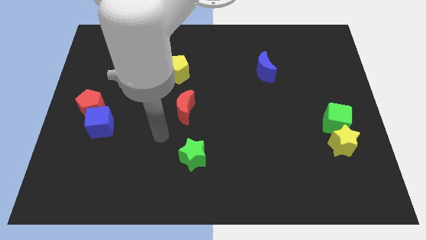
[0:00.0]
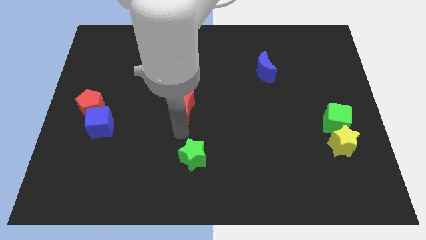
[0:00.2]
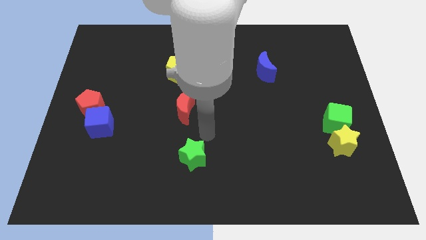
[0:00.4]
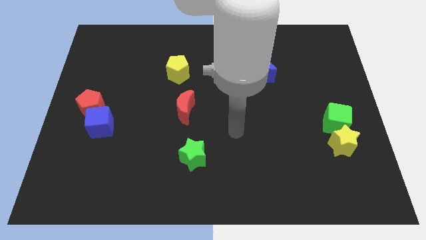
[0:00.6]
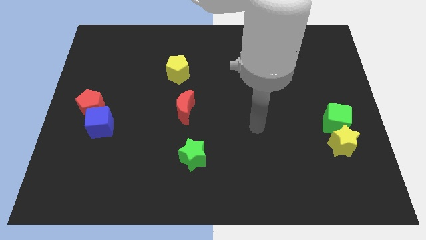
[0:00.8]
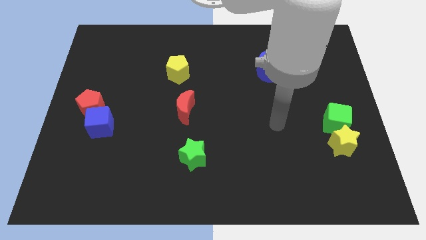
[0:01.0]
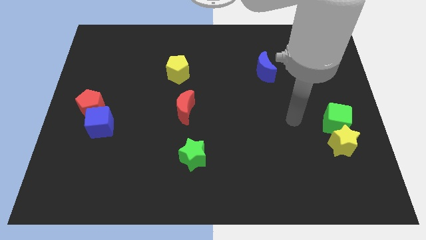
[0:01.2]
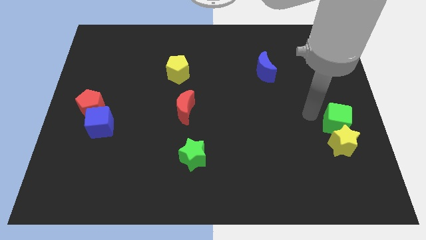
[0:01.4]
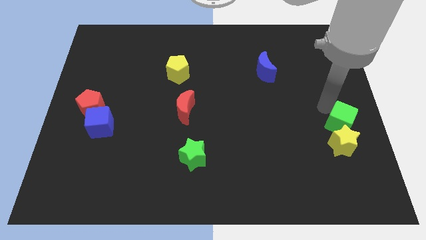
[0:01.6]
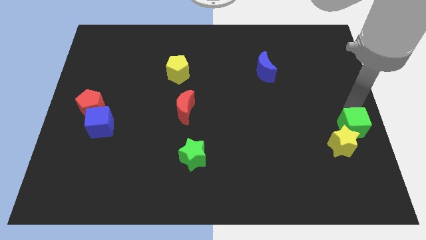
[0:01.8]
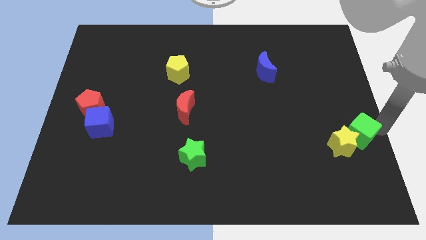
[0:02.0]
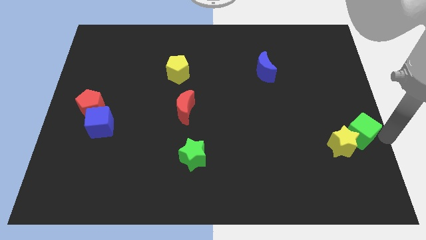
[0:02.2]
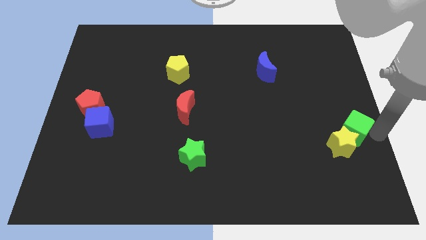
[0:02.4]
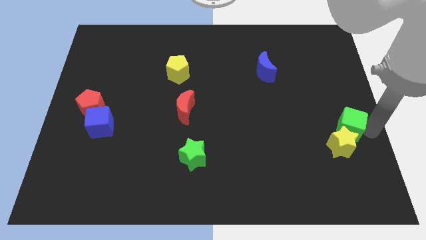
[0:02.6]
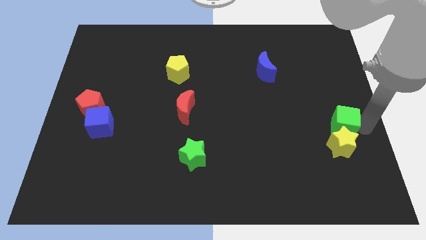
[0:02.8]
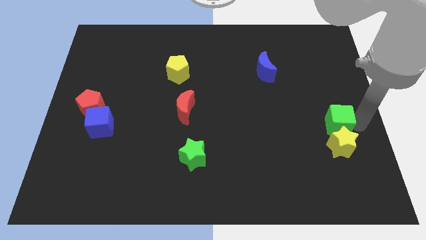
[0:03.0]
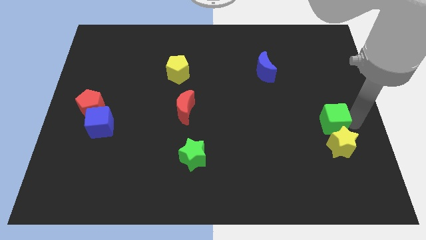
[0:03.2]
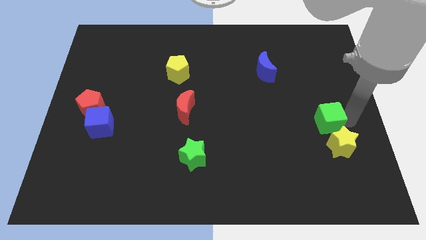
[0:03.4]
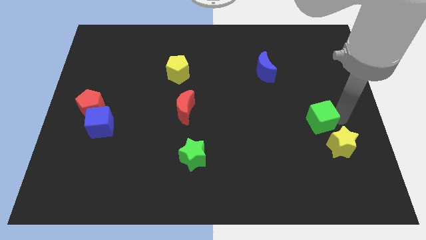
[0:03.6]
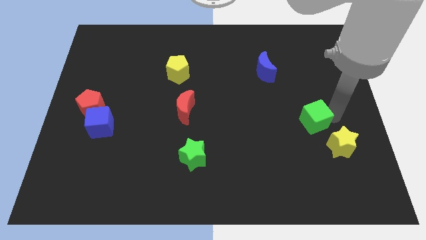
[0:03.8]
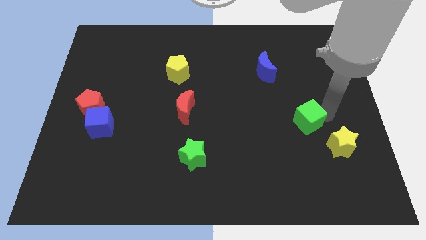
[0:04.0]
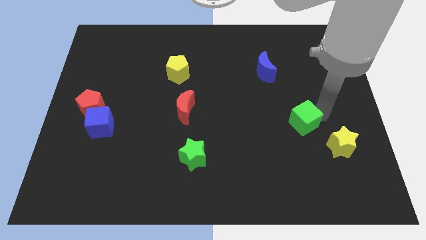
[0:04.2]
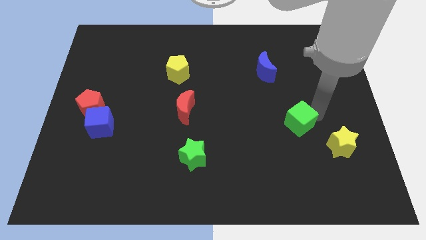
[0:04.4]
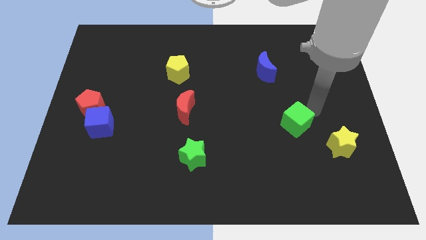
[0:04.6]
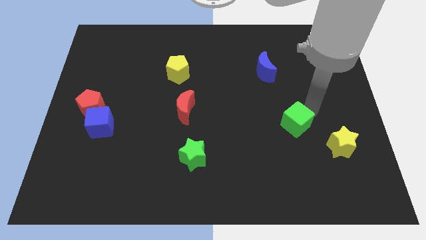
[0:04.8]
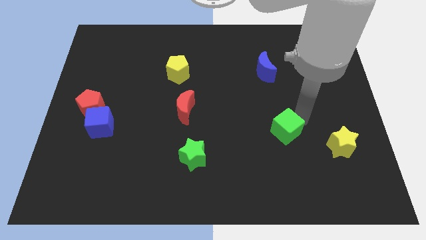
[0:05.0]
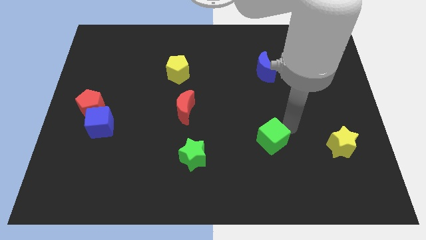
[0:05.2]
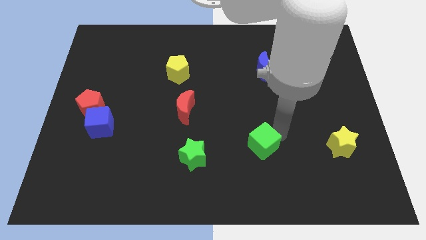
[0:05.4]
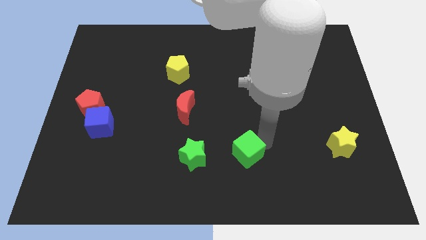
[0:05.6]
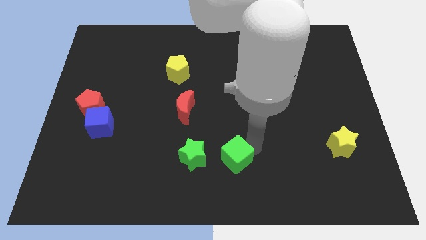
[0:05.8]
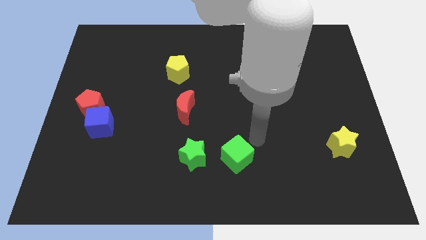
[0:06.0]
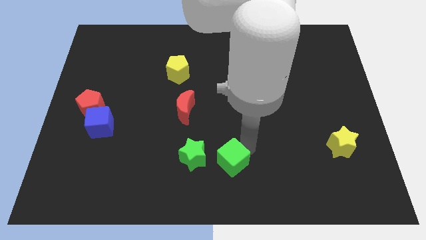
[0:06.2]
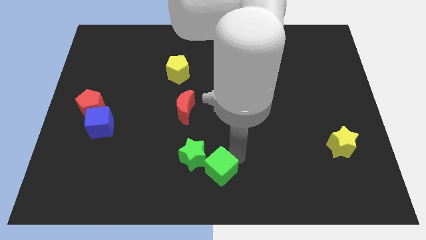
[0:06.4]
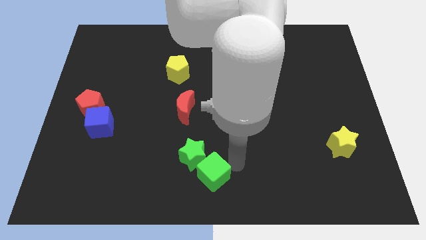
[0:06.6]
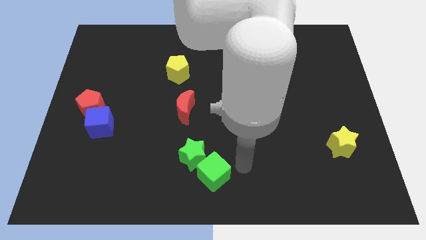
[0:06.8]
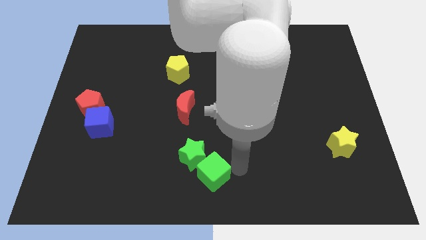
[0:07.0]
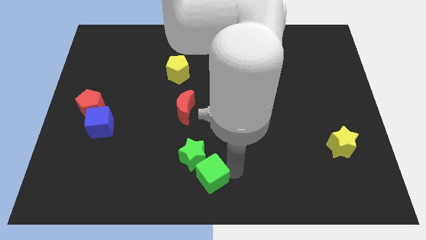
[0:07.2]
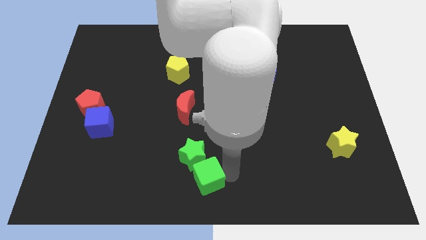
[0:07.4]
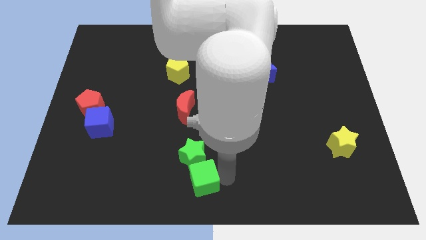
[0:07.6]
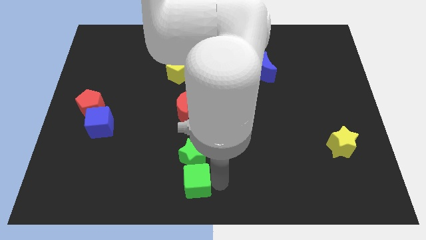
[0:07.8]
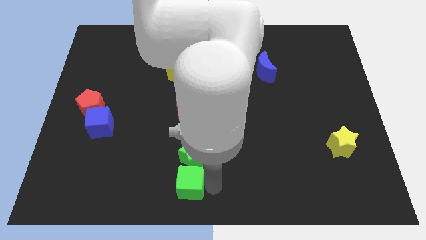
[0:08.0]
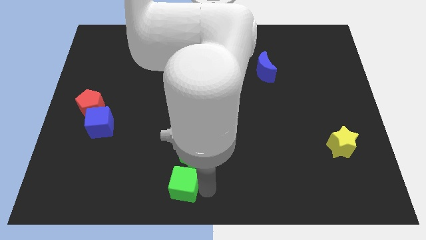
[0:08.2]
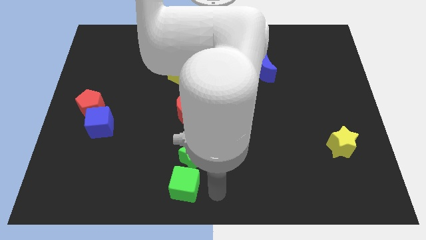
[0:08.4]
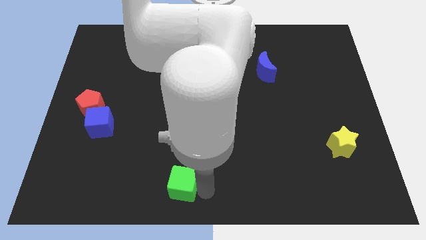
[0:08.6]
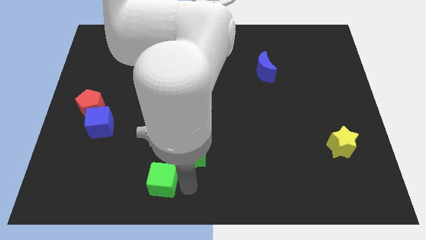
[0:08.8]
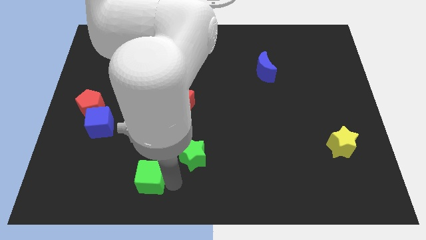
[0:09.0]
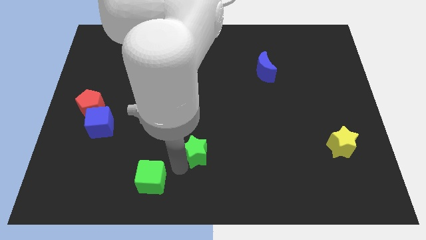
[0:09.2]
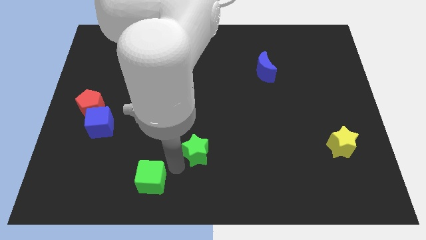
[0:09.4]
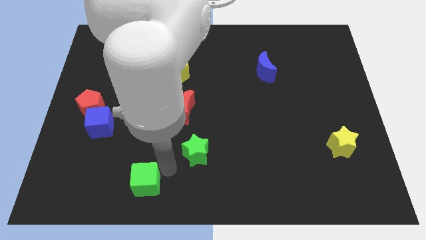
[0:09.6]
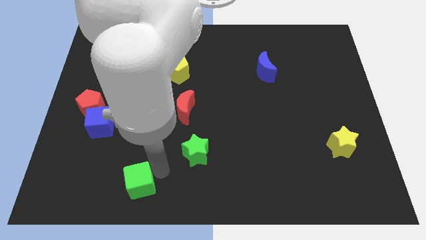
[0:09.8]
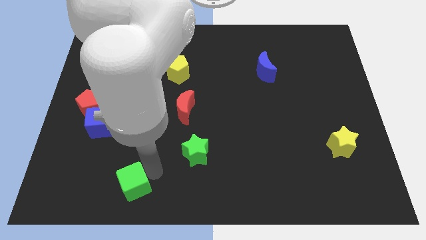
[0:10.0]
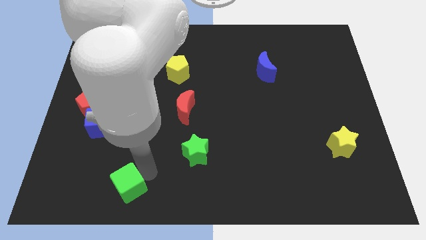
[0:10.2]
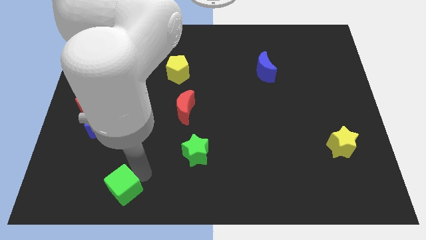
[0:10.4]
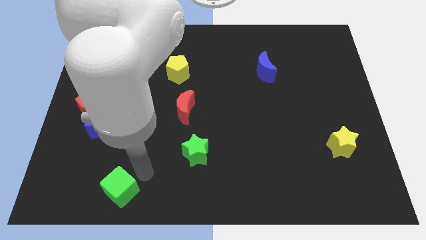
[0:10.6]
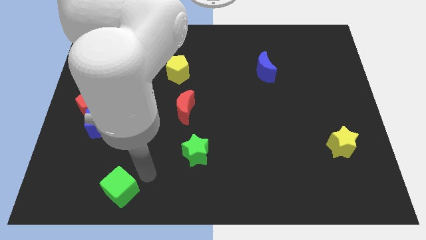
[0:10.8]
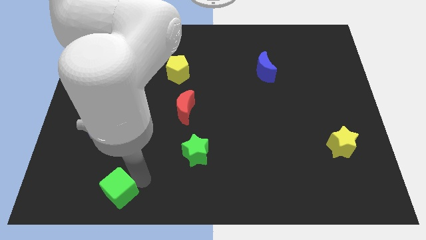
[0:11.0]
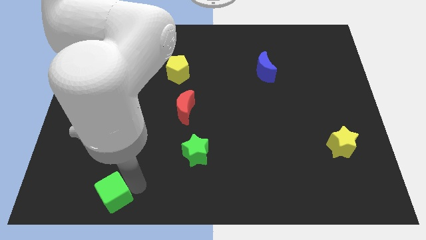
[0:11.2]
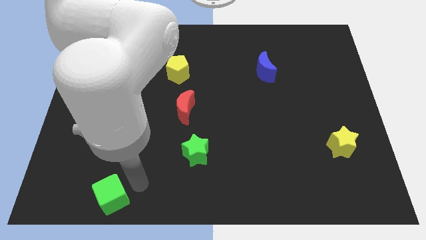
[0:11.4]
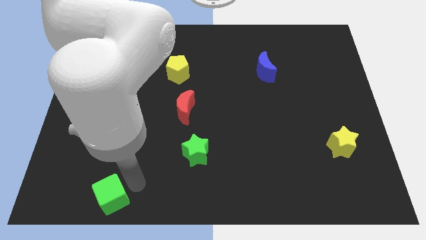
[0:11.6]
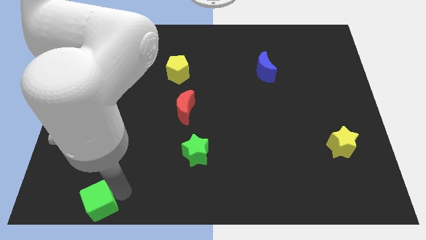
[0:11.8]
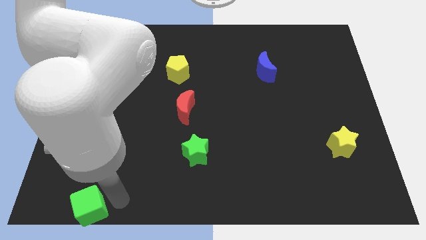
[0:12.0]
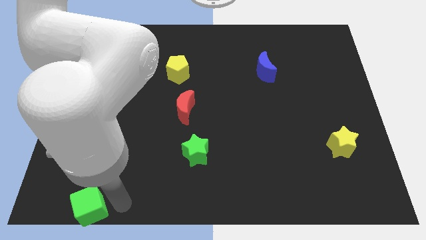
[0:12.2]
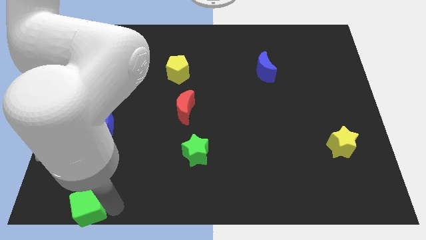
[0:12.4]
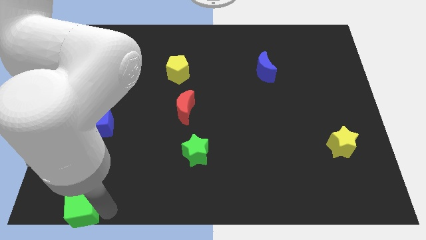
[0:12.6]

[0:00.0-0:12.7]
move the green cube to the bottom left of the board

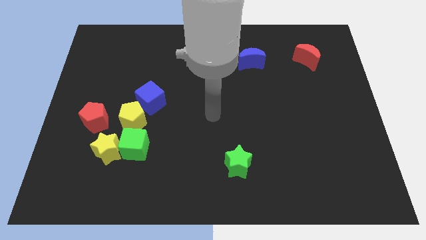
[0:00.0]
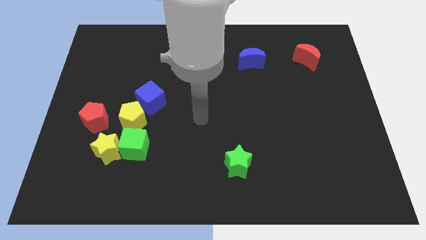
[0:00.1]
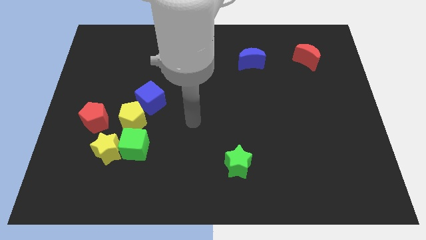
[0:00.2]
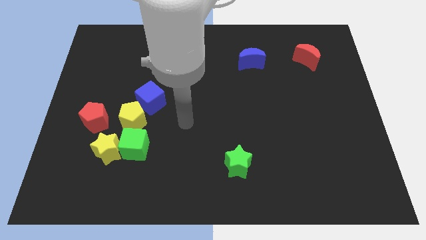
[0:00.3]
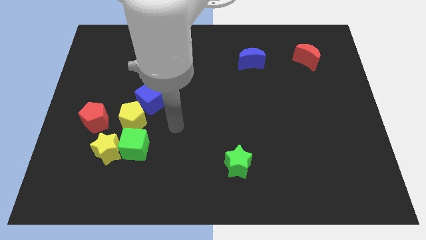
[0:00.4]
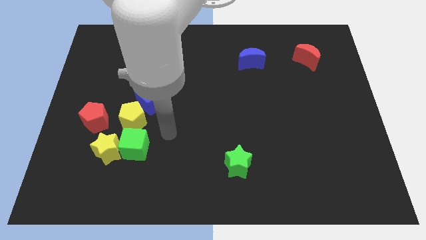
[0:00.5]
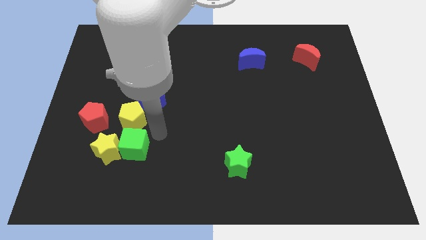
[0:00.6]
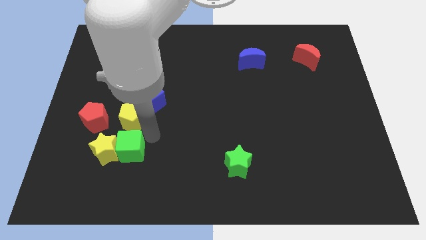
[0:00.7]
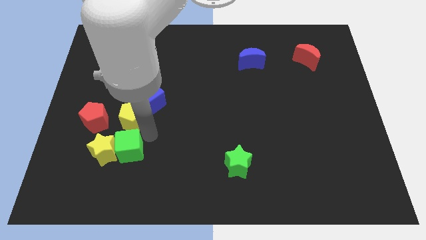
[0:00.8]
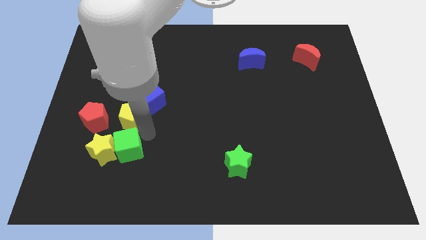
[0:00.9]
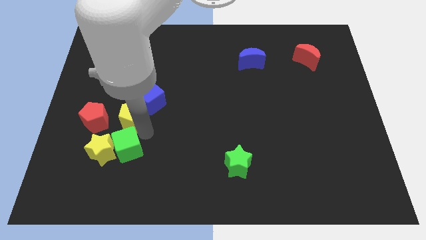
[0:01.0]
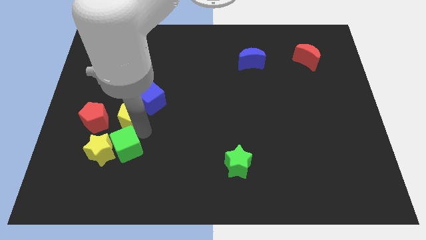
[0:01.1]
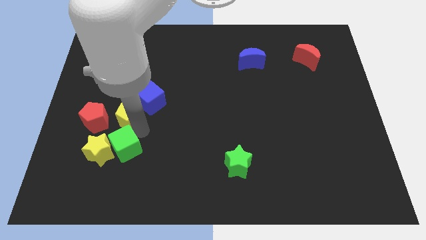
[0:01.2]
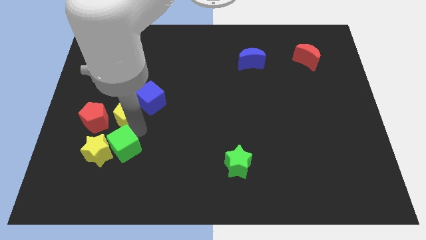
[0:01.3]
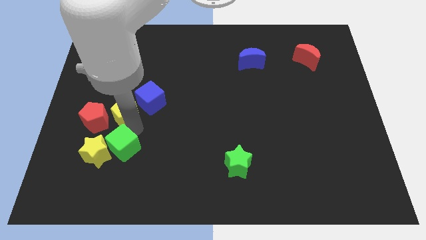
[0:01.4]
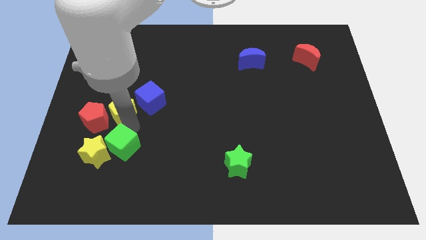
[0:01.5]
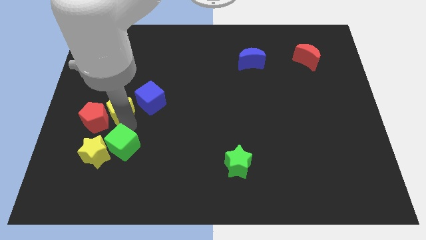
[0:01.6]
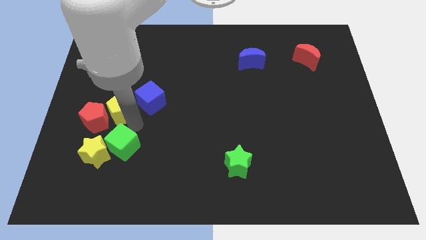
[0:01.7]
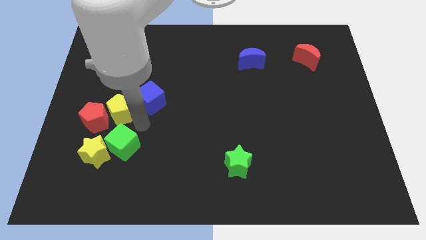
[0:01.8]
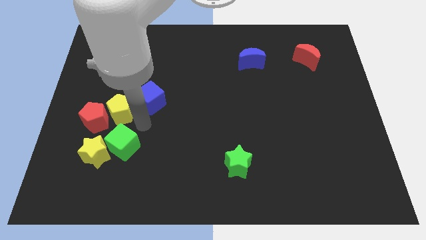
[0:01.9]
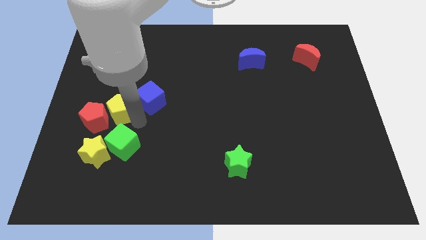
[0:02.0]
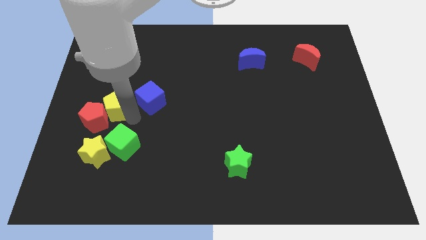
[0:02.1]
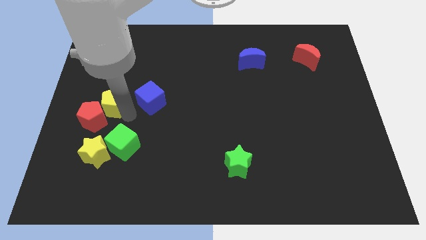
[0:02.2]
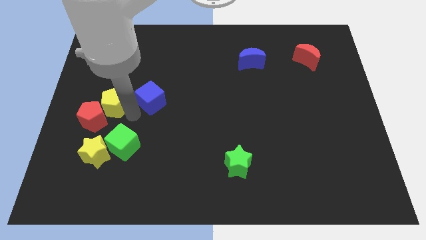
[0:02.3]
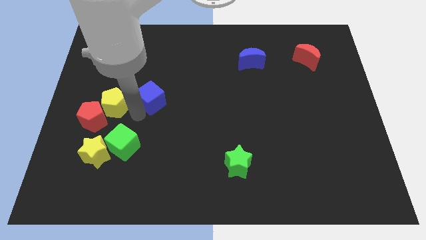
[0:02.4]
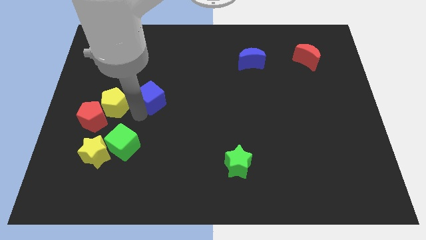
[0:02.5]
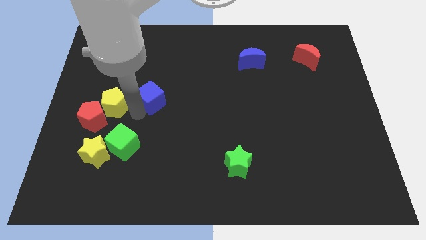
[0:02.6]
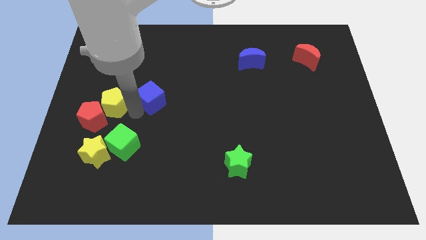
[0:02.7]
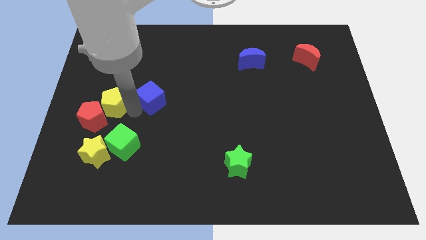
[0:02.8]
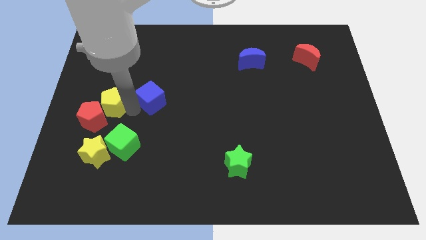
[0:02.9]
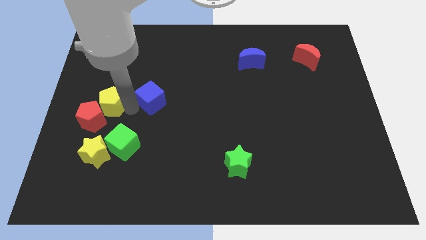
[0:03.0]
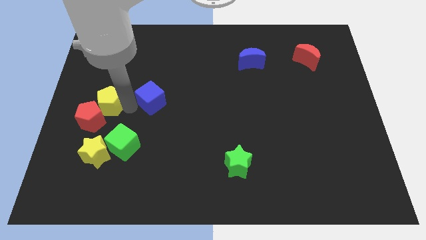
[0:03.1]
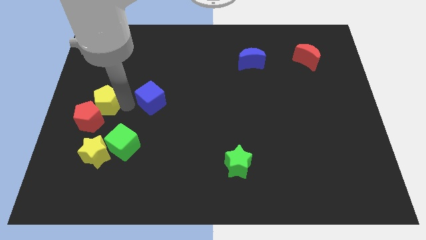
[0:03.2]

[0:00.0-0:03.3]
slide the yellow pentagon to the center left
